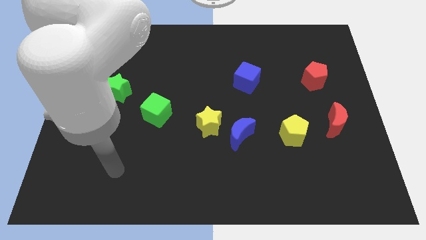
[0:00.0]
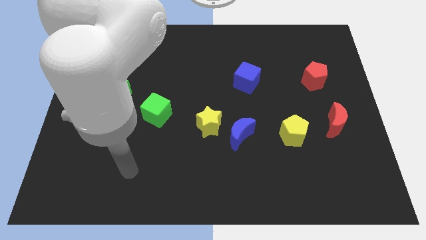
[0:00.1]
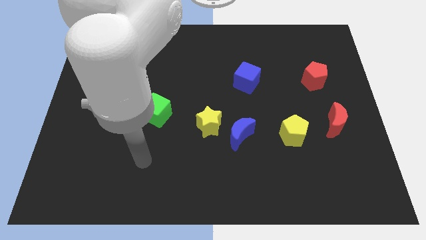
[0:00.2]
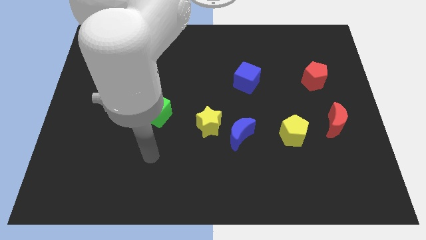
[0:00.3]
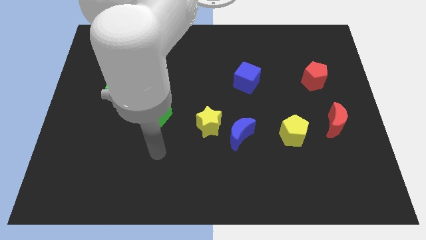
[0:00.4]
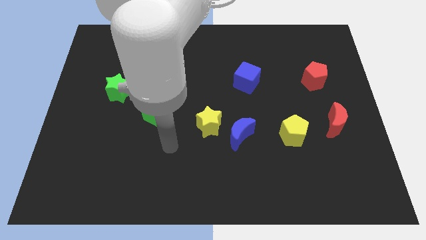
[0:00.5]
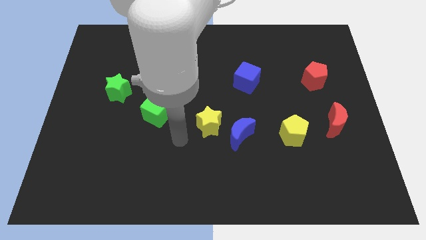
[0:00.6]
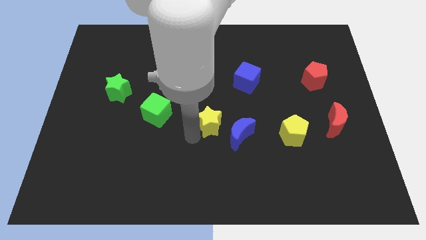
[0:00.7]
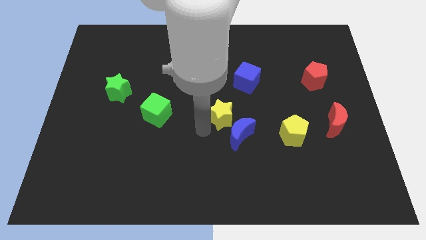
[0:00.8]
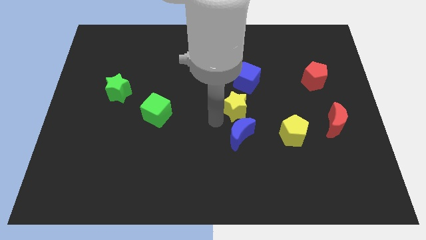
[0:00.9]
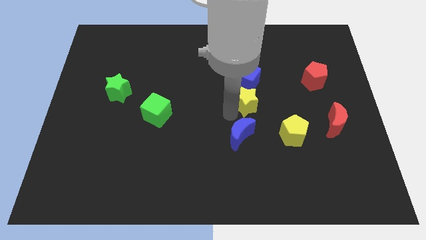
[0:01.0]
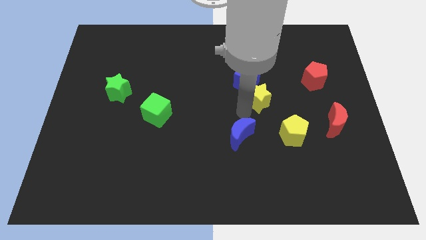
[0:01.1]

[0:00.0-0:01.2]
pull the blue moon apart from the yellow star

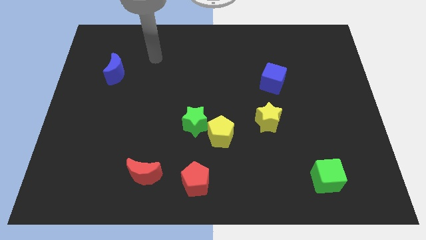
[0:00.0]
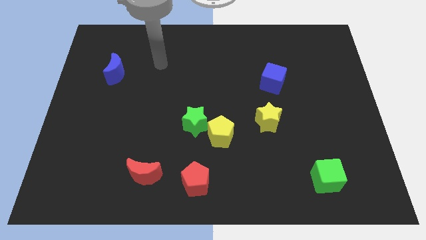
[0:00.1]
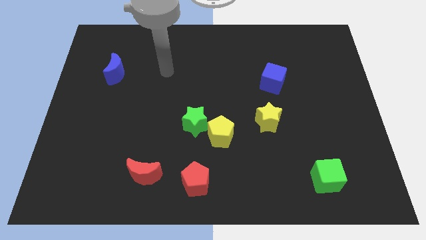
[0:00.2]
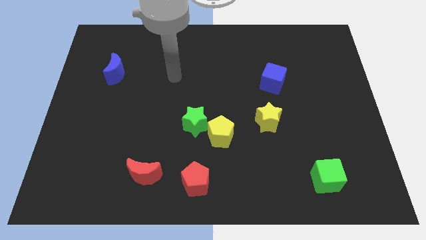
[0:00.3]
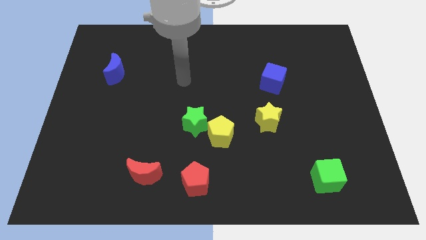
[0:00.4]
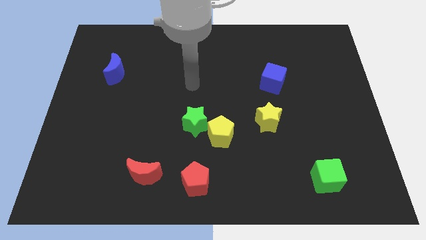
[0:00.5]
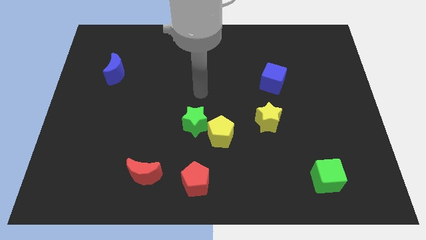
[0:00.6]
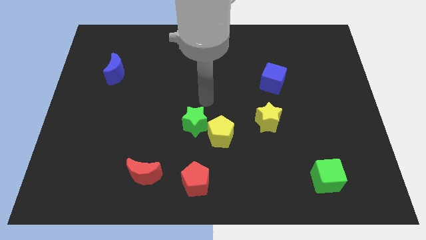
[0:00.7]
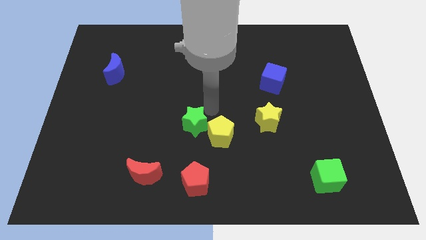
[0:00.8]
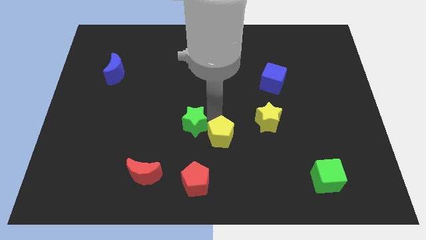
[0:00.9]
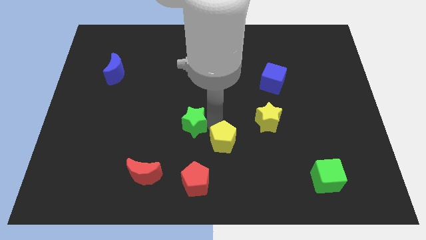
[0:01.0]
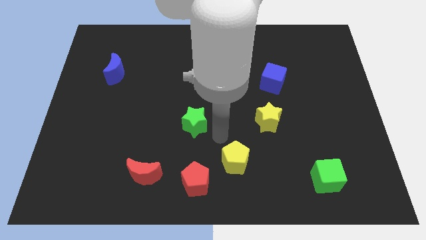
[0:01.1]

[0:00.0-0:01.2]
pull the green star apart from the yellow pentagon

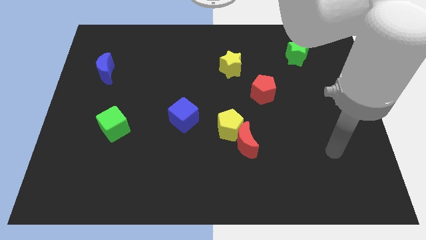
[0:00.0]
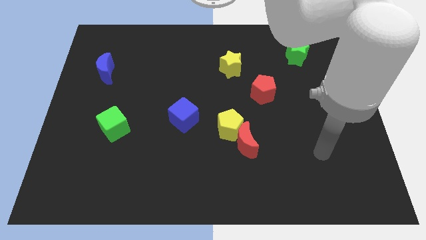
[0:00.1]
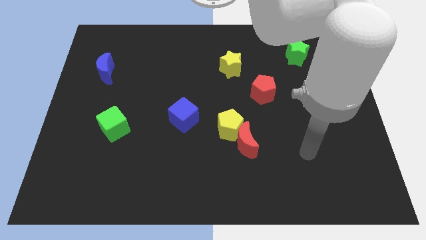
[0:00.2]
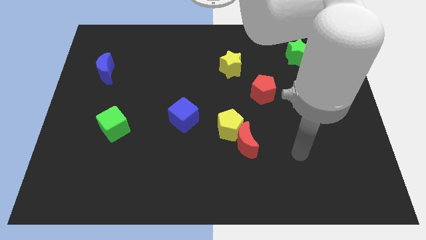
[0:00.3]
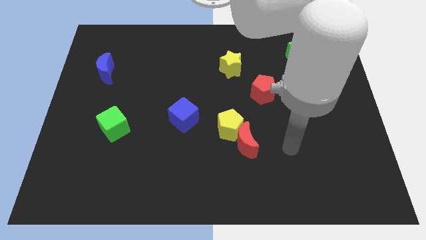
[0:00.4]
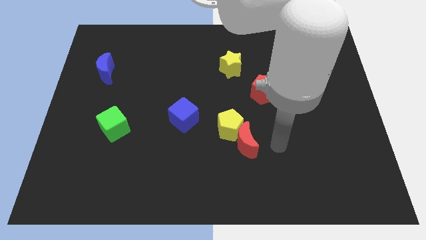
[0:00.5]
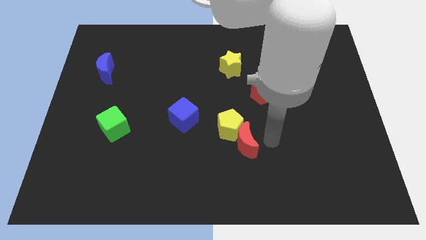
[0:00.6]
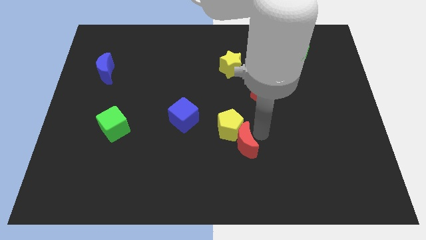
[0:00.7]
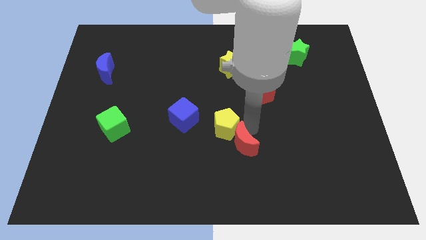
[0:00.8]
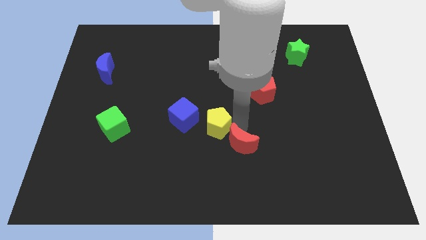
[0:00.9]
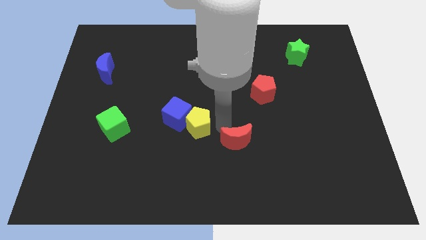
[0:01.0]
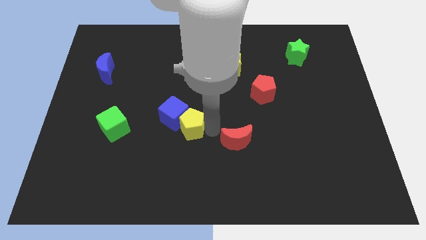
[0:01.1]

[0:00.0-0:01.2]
pull the red moon apart from the yellow pentagon

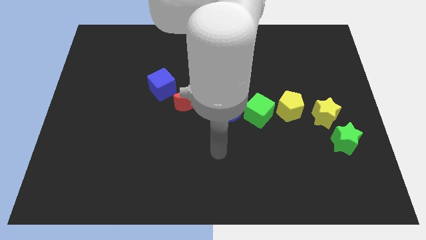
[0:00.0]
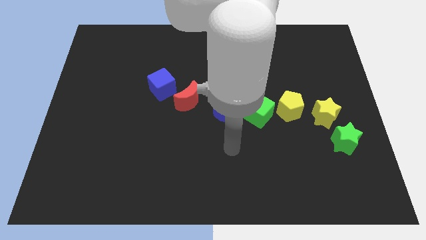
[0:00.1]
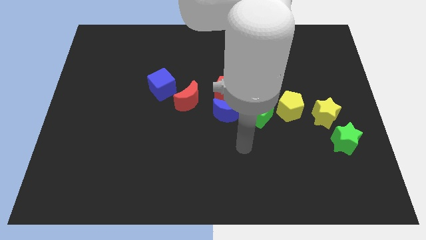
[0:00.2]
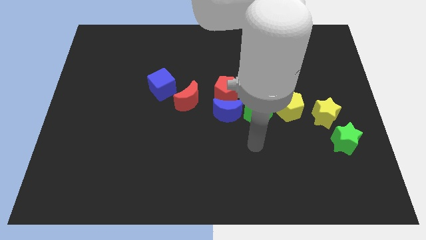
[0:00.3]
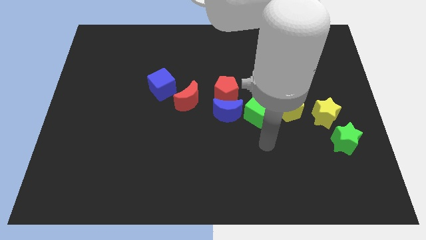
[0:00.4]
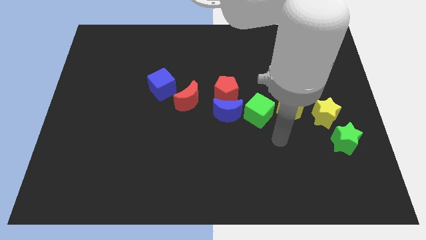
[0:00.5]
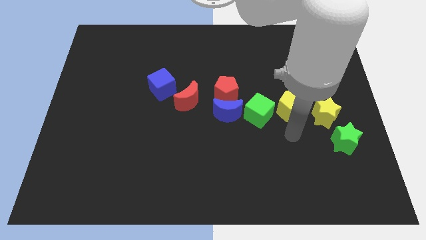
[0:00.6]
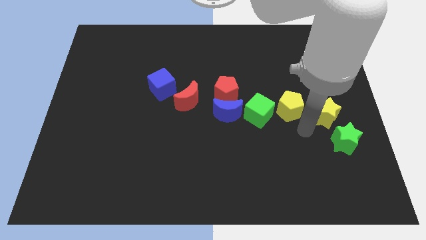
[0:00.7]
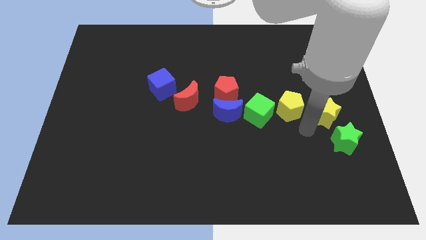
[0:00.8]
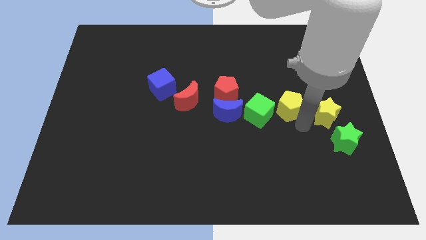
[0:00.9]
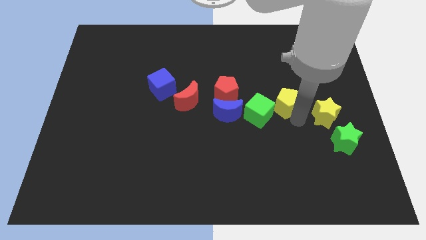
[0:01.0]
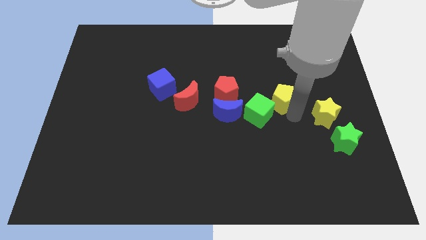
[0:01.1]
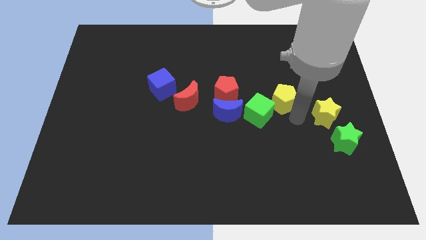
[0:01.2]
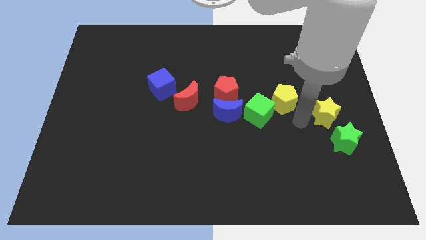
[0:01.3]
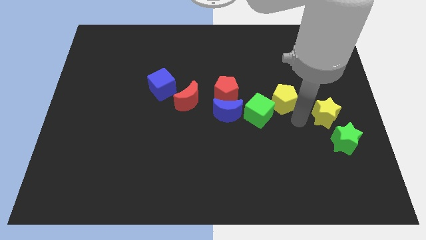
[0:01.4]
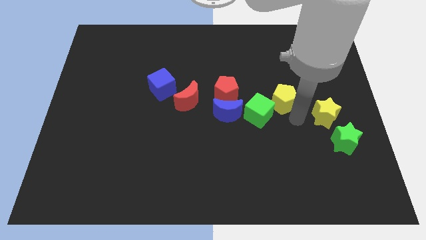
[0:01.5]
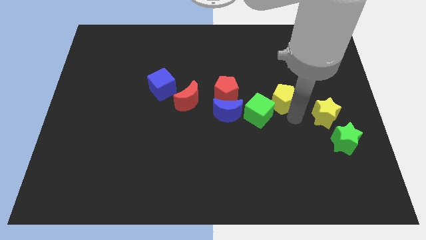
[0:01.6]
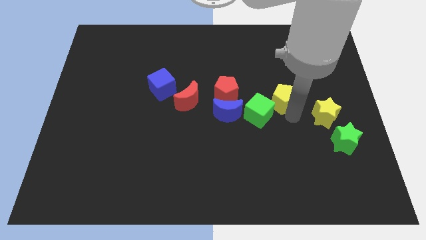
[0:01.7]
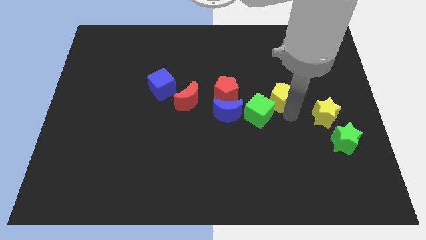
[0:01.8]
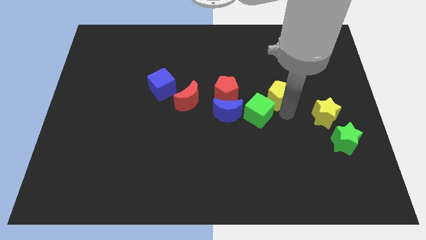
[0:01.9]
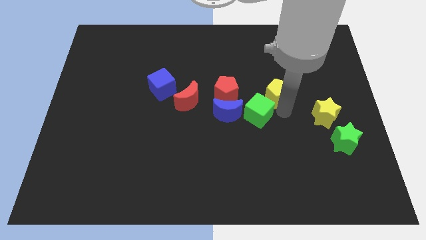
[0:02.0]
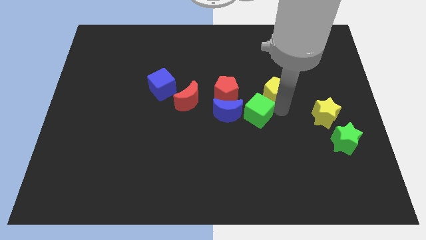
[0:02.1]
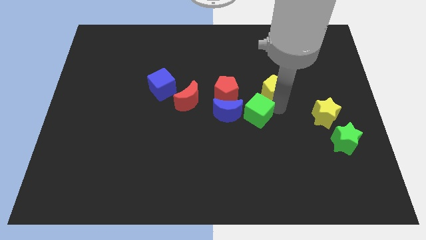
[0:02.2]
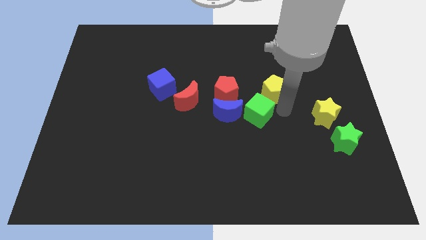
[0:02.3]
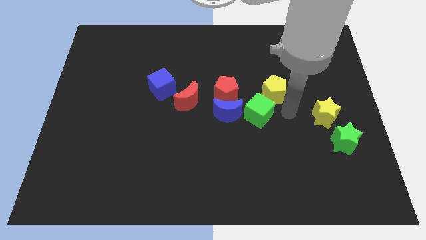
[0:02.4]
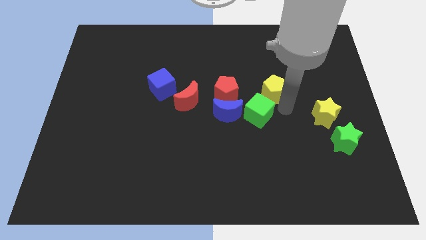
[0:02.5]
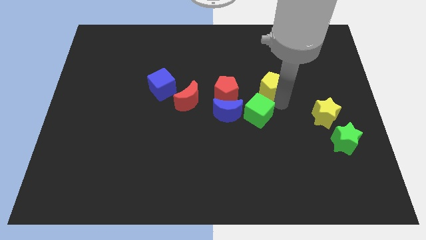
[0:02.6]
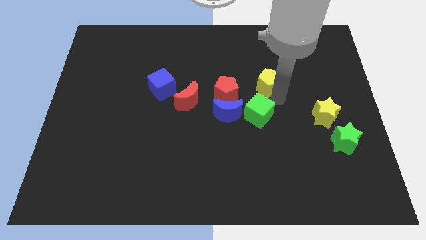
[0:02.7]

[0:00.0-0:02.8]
move the yellow pentagon away from the green cube and yellow star

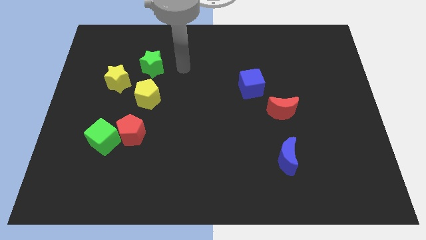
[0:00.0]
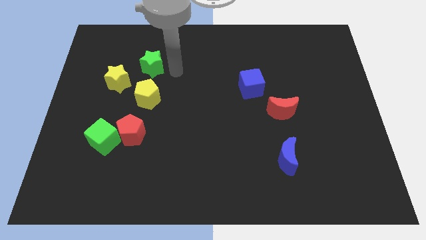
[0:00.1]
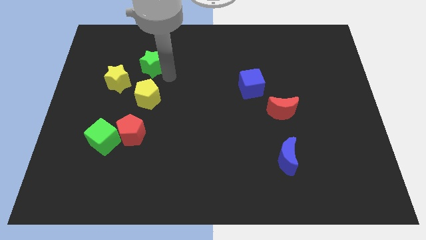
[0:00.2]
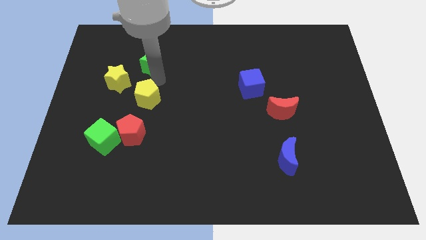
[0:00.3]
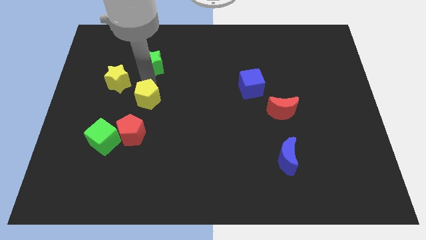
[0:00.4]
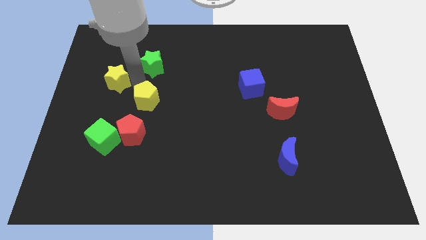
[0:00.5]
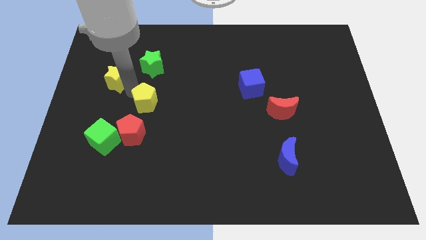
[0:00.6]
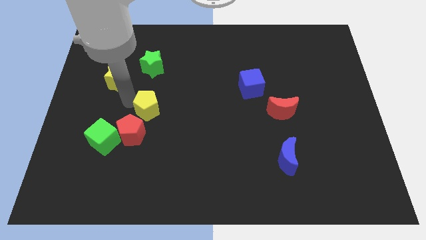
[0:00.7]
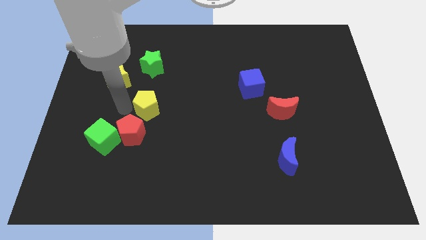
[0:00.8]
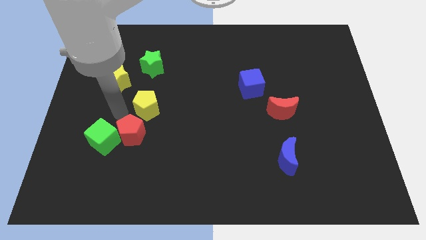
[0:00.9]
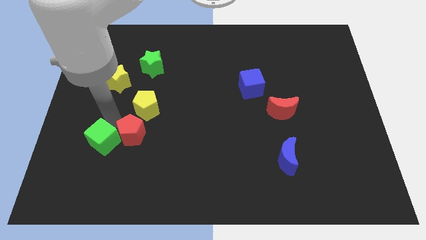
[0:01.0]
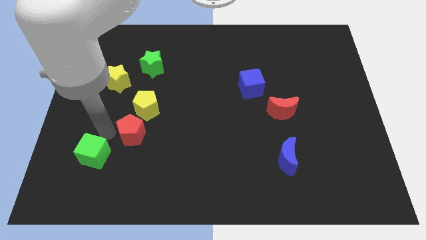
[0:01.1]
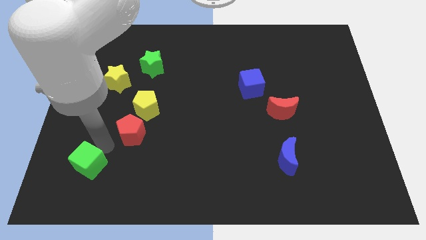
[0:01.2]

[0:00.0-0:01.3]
separate the red pentagon from the green cube

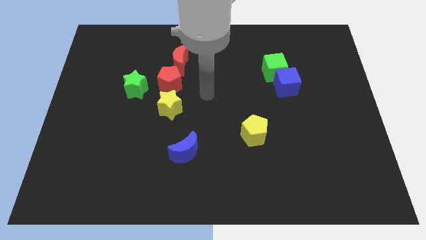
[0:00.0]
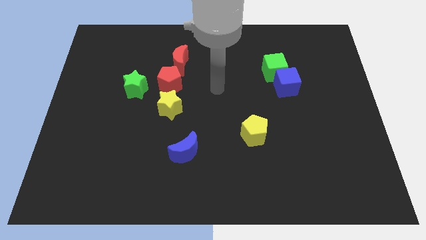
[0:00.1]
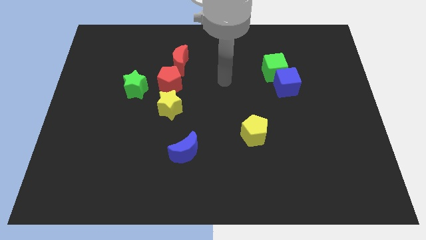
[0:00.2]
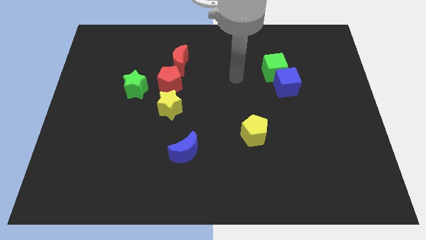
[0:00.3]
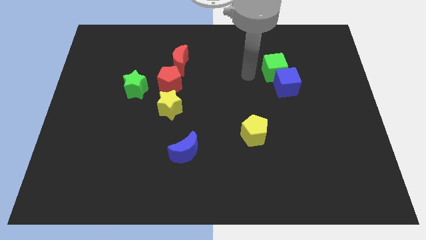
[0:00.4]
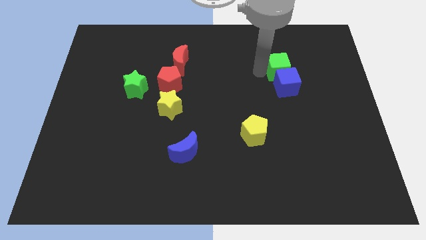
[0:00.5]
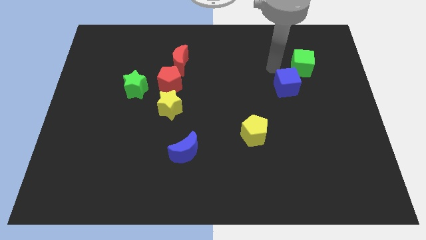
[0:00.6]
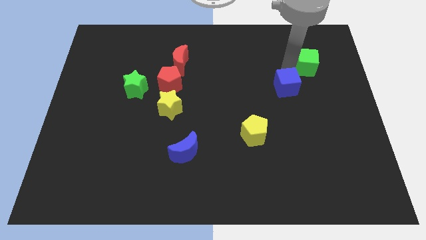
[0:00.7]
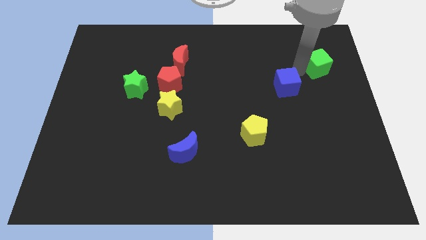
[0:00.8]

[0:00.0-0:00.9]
pull the blue cube apart from the green cube

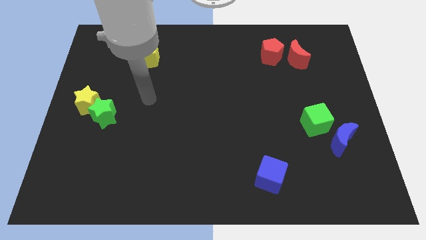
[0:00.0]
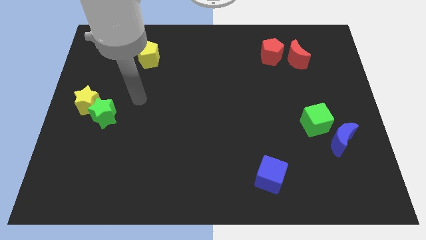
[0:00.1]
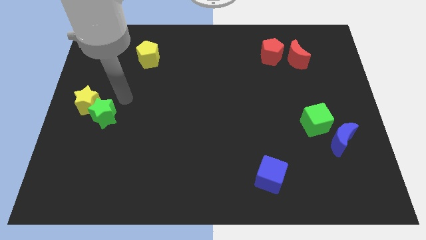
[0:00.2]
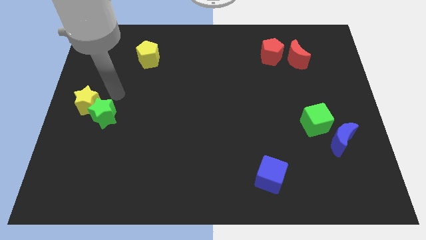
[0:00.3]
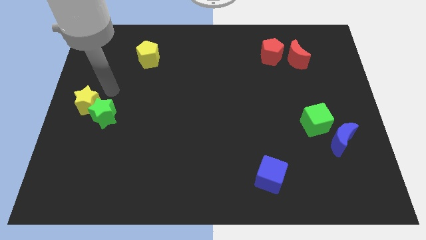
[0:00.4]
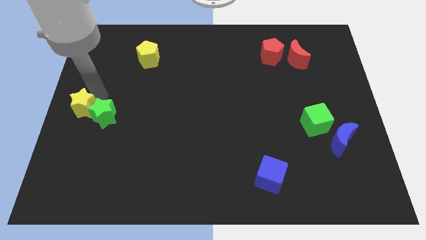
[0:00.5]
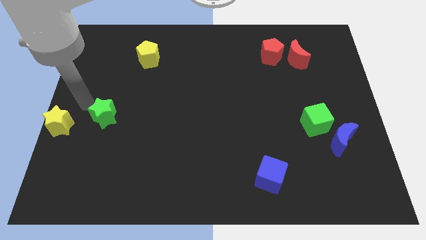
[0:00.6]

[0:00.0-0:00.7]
move the green star away from the yellow star
